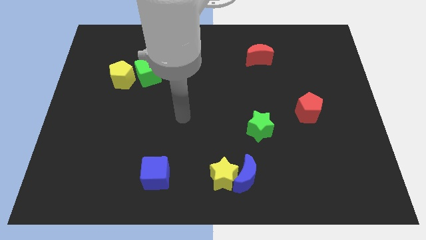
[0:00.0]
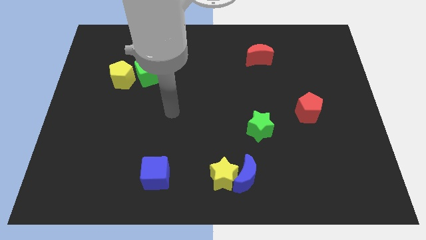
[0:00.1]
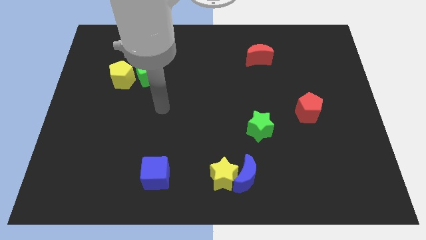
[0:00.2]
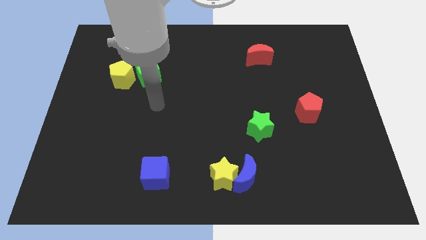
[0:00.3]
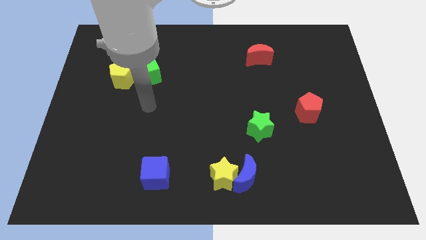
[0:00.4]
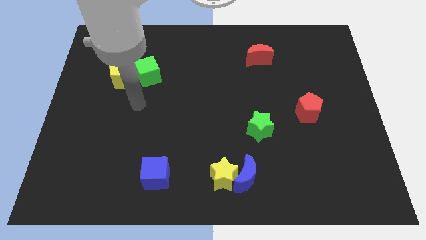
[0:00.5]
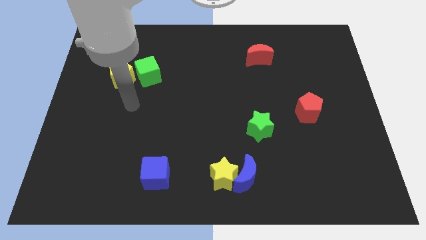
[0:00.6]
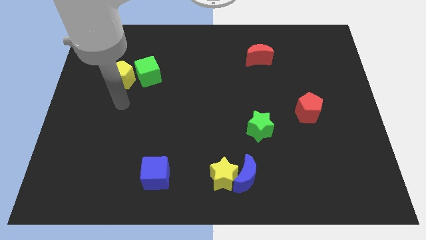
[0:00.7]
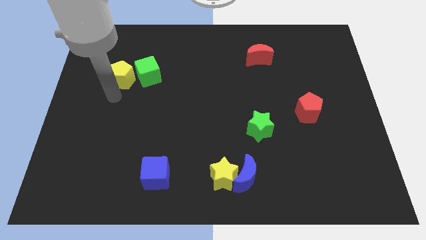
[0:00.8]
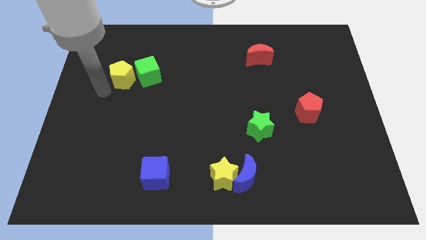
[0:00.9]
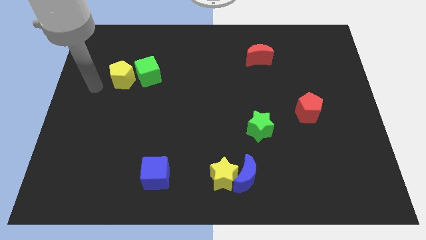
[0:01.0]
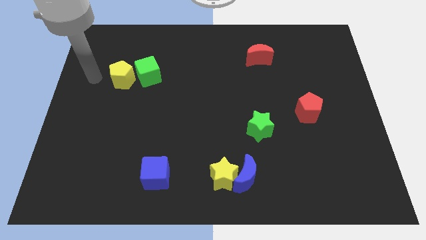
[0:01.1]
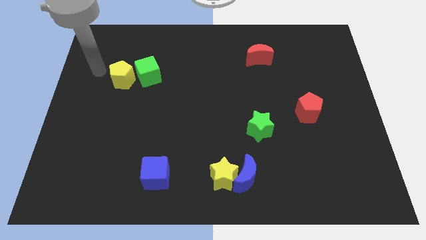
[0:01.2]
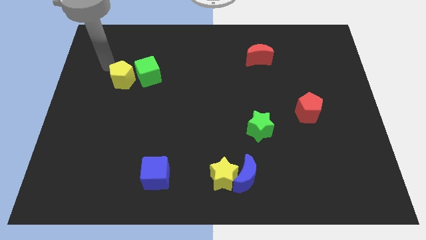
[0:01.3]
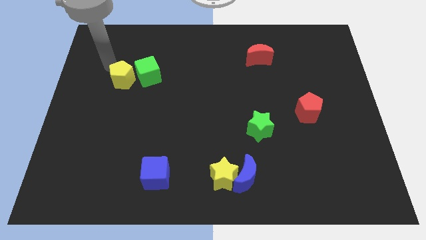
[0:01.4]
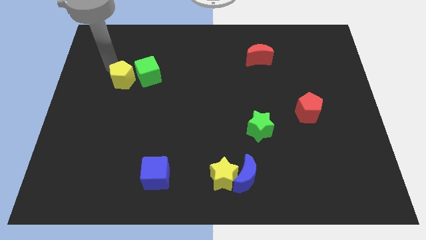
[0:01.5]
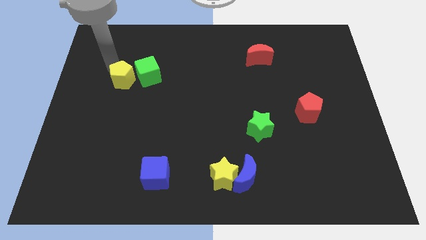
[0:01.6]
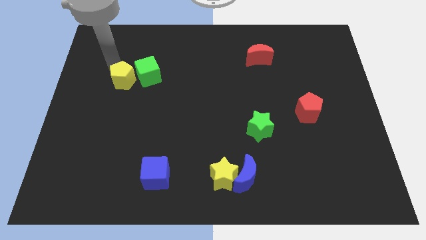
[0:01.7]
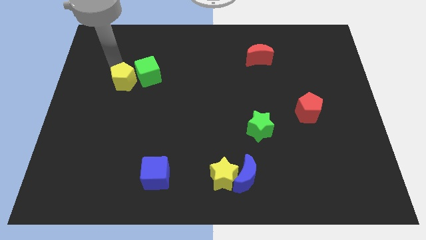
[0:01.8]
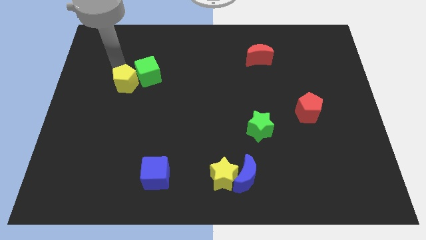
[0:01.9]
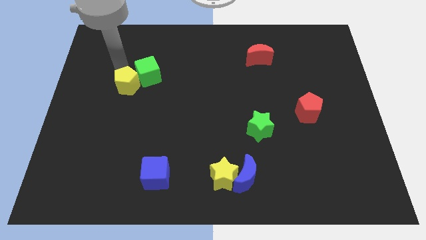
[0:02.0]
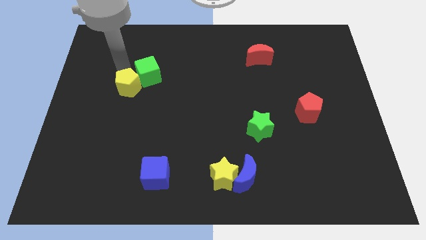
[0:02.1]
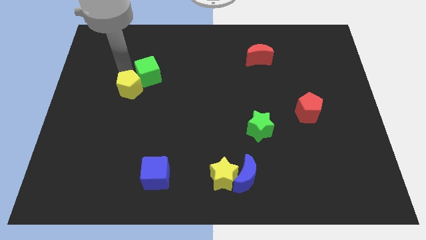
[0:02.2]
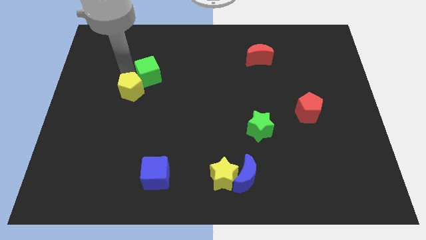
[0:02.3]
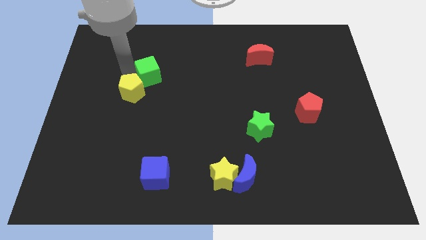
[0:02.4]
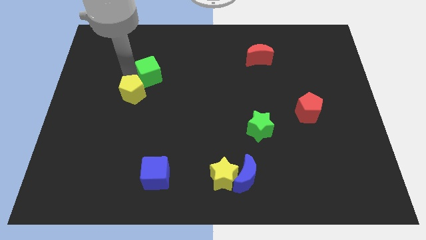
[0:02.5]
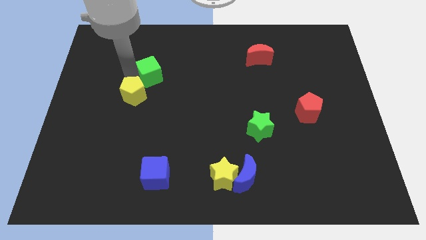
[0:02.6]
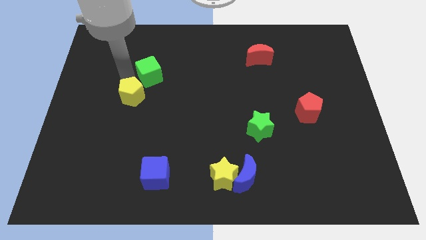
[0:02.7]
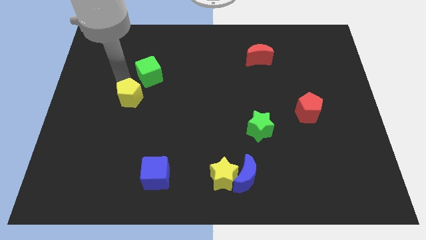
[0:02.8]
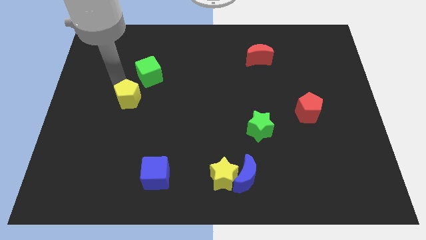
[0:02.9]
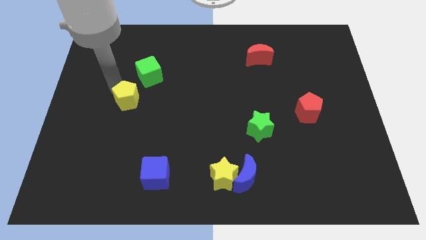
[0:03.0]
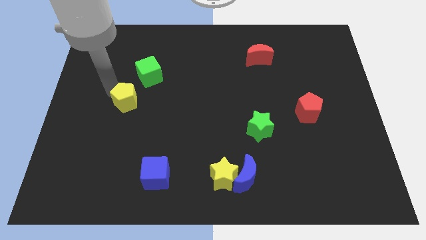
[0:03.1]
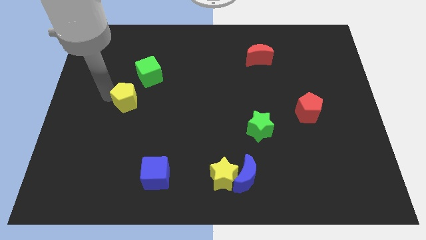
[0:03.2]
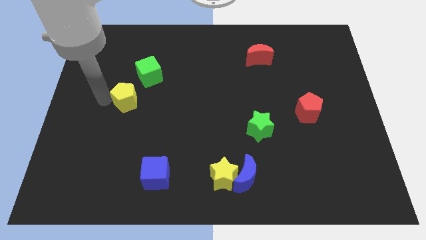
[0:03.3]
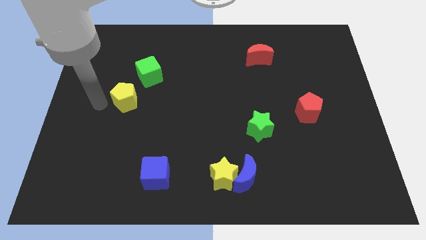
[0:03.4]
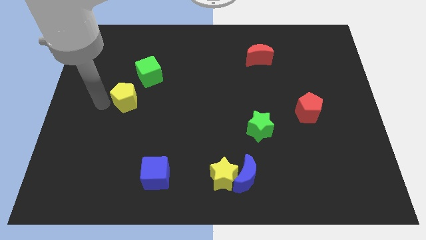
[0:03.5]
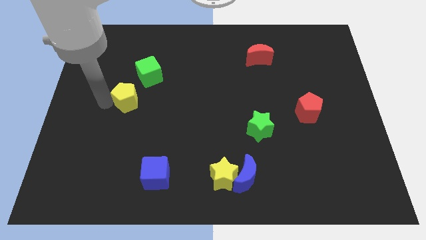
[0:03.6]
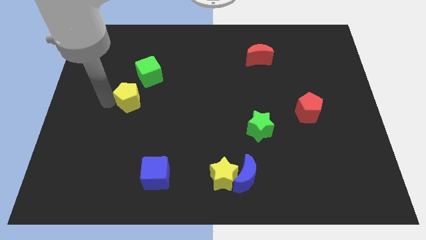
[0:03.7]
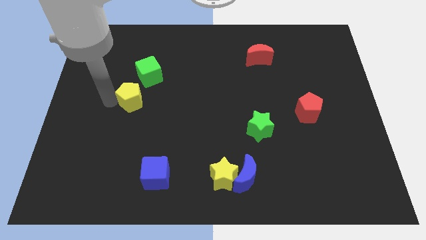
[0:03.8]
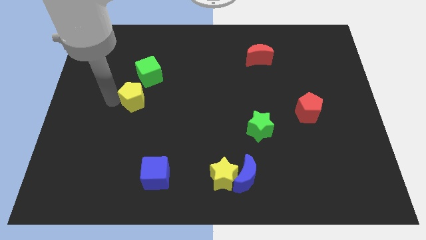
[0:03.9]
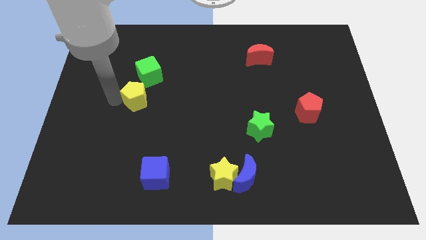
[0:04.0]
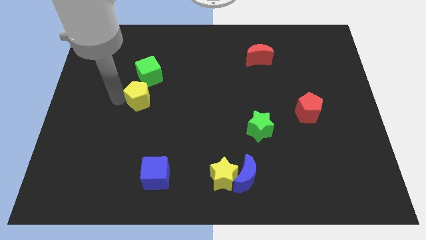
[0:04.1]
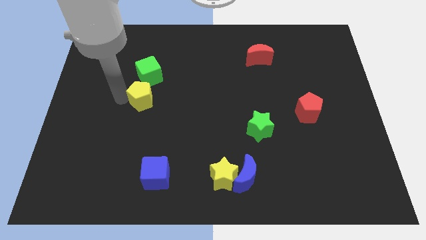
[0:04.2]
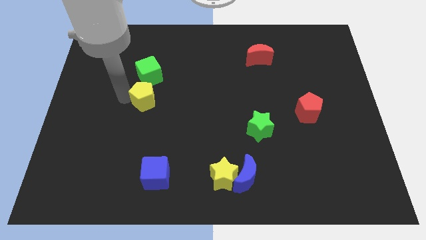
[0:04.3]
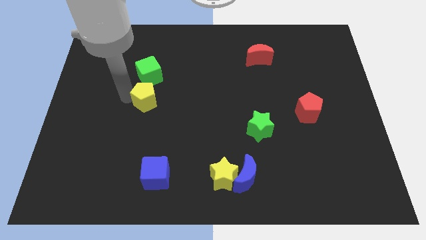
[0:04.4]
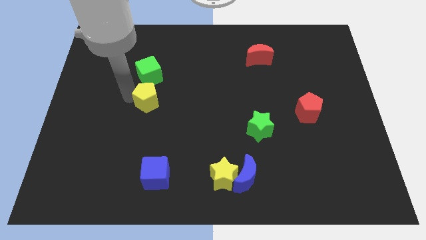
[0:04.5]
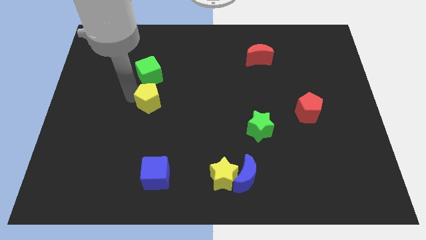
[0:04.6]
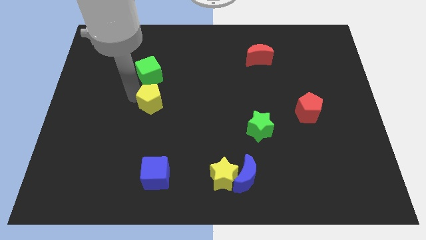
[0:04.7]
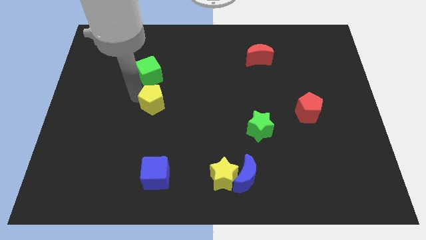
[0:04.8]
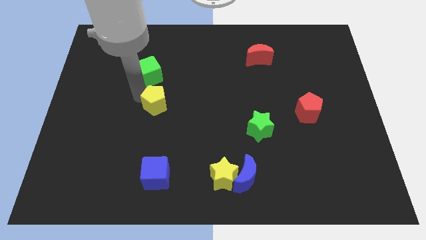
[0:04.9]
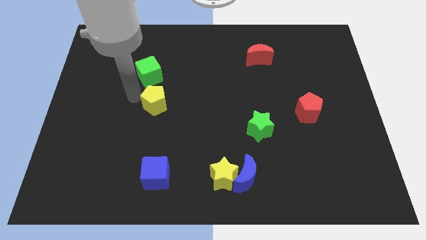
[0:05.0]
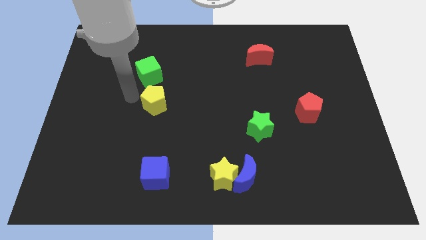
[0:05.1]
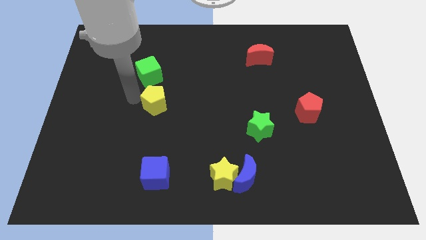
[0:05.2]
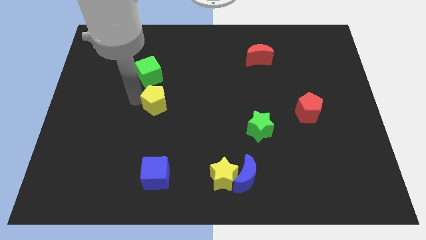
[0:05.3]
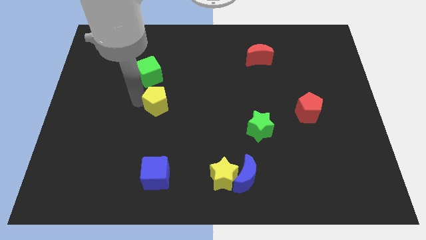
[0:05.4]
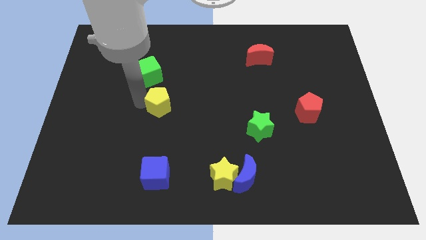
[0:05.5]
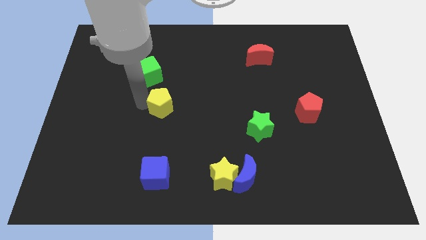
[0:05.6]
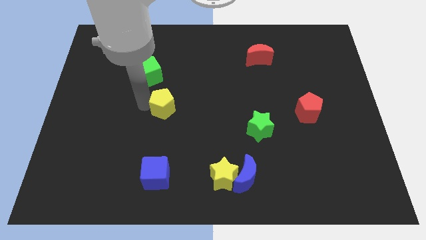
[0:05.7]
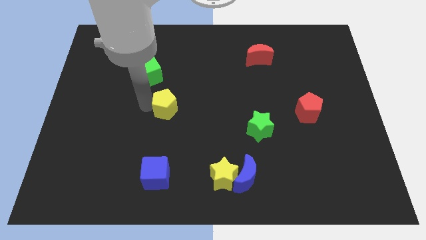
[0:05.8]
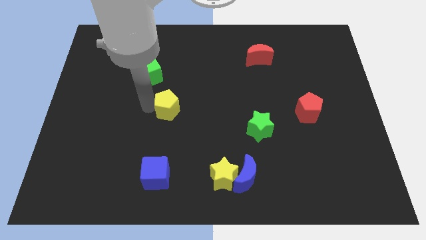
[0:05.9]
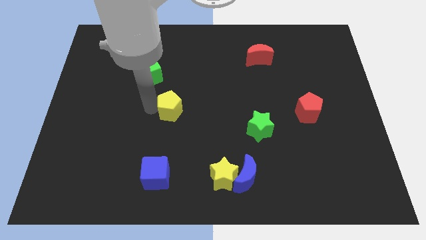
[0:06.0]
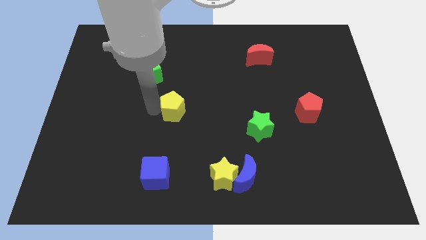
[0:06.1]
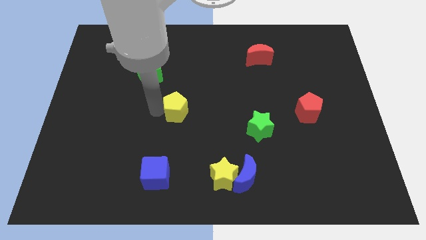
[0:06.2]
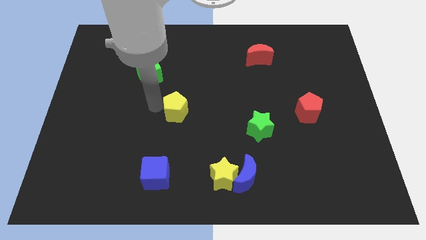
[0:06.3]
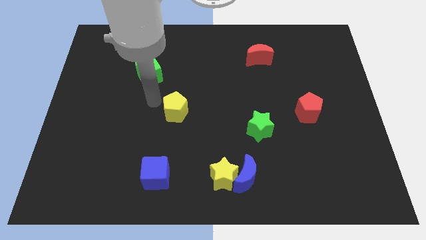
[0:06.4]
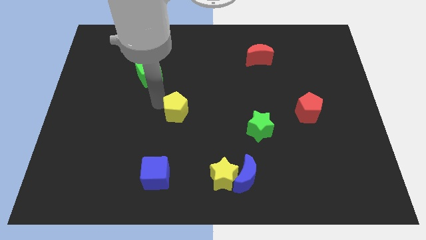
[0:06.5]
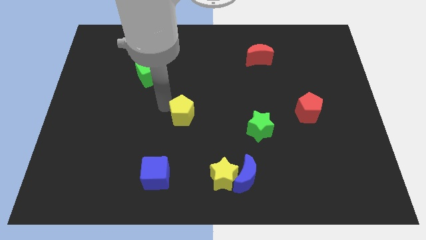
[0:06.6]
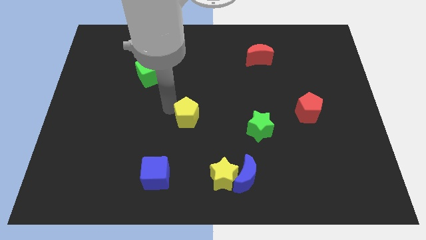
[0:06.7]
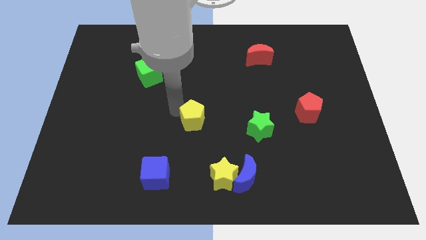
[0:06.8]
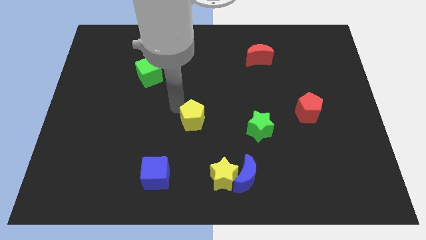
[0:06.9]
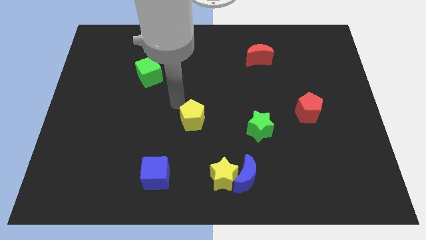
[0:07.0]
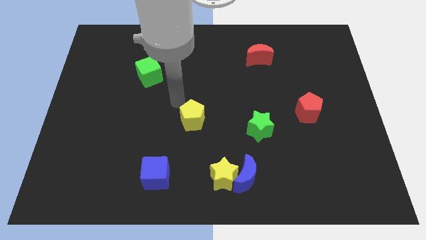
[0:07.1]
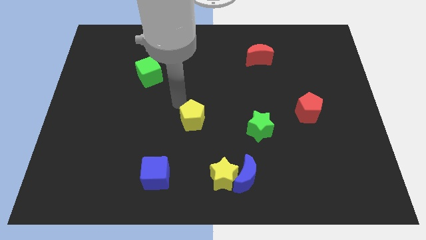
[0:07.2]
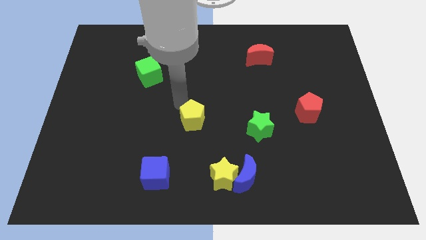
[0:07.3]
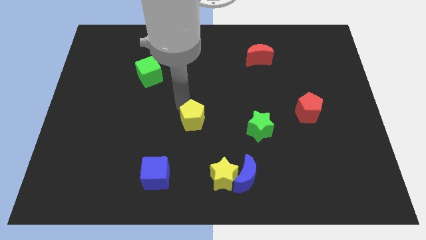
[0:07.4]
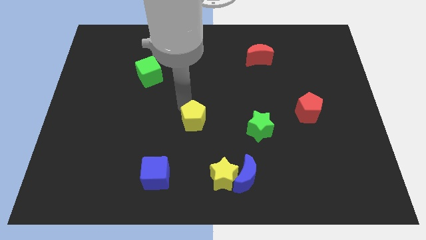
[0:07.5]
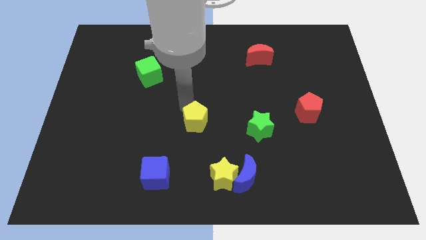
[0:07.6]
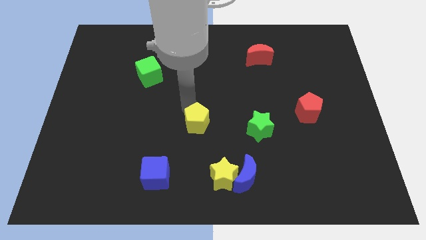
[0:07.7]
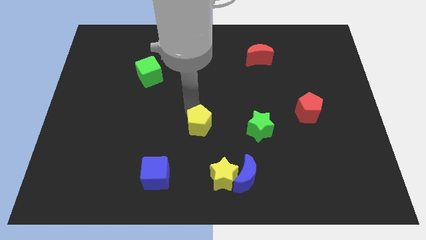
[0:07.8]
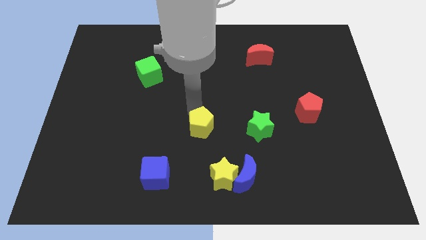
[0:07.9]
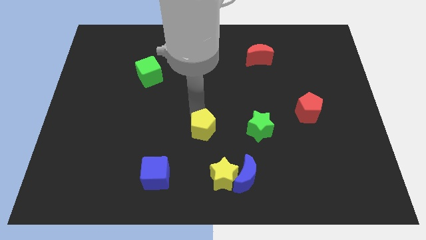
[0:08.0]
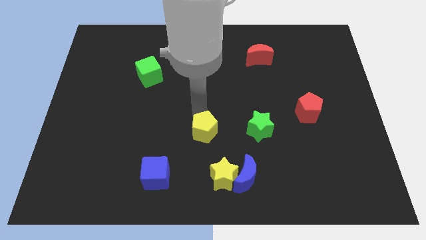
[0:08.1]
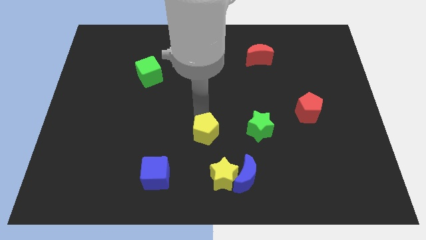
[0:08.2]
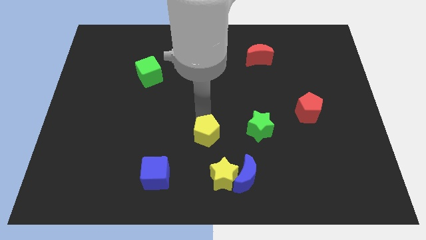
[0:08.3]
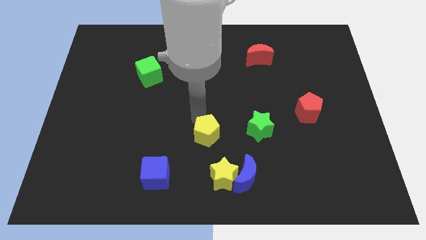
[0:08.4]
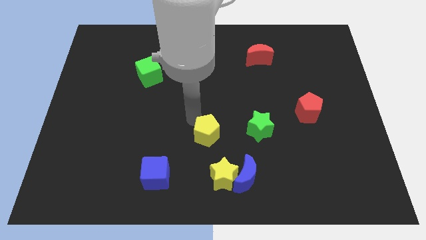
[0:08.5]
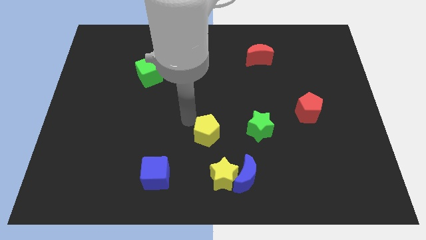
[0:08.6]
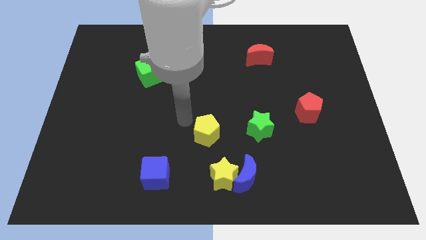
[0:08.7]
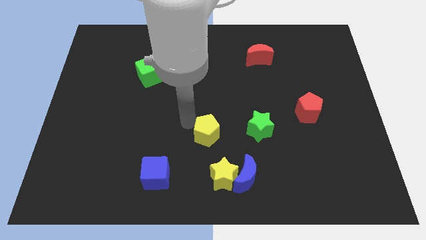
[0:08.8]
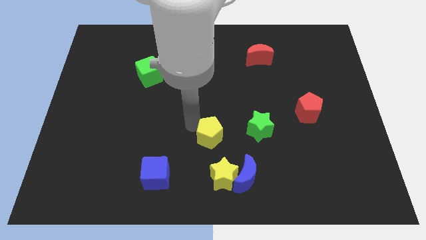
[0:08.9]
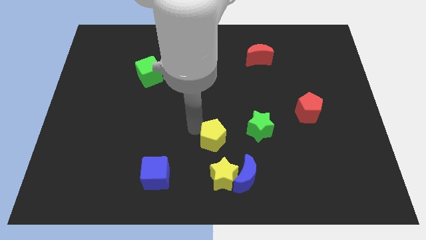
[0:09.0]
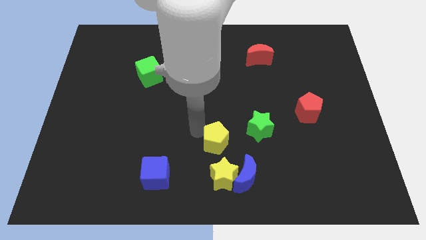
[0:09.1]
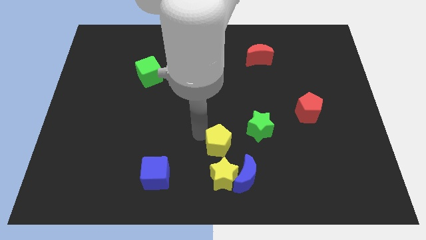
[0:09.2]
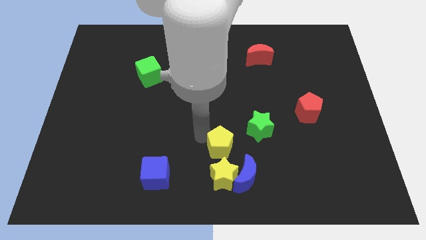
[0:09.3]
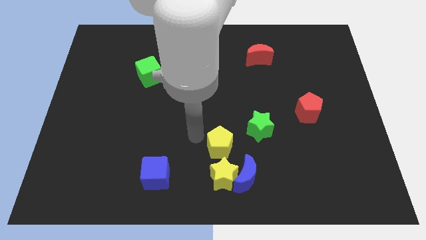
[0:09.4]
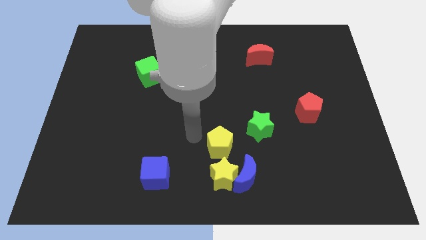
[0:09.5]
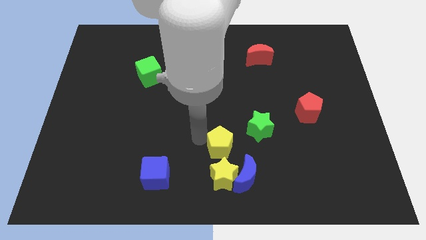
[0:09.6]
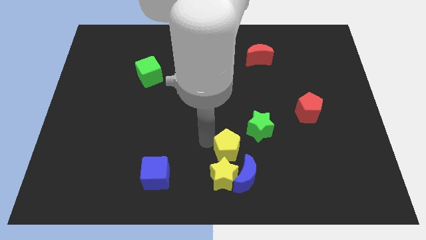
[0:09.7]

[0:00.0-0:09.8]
move the yellow pentagon diagonally up and to the right of the yellow star
